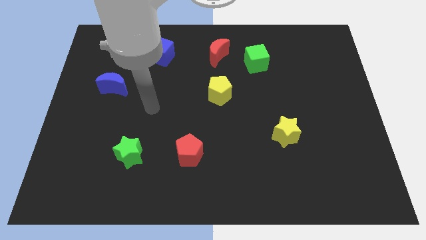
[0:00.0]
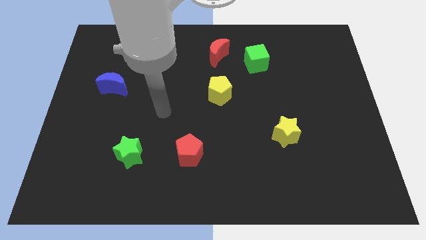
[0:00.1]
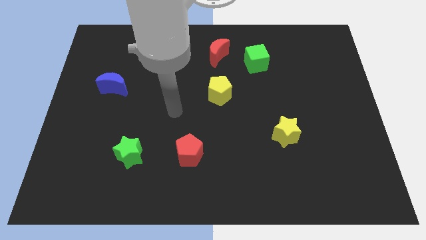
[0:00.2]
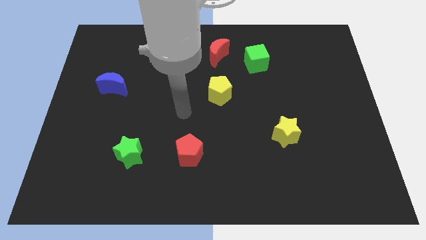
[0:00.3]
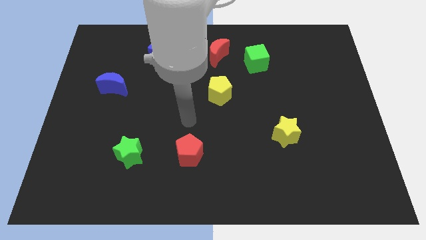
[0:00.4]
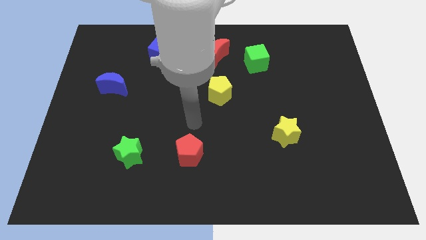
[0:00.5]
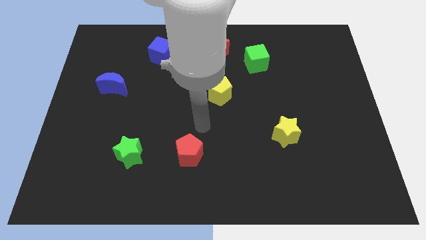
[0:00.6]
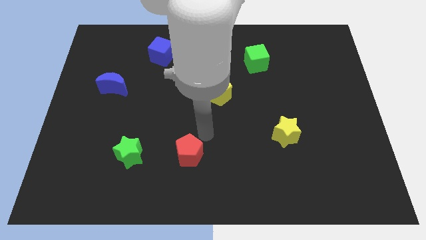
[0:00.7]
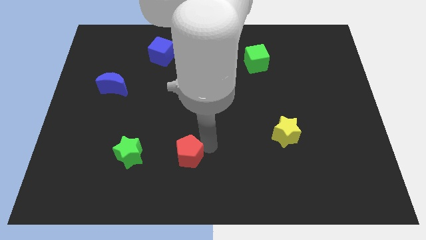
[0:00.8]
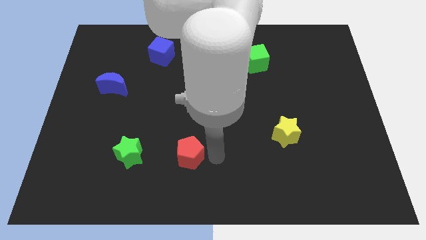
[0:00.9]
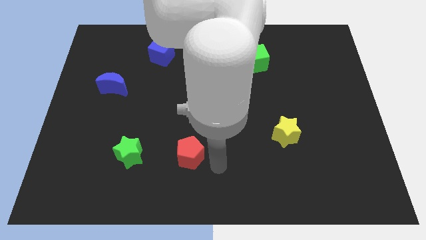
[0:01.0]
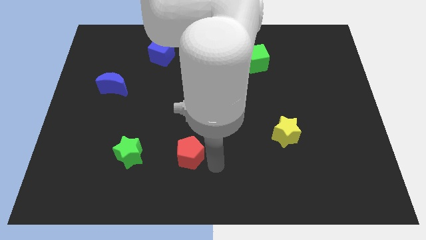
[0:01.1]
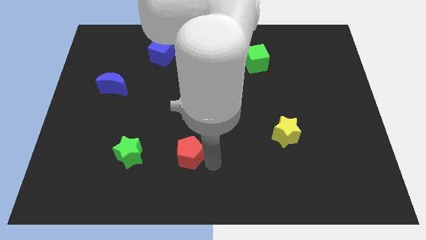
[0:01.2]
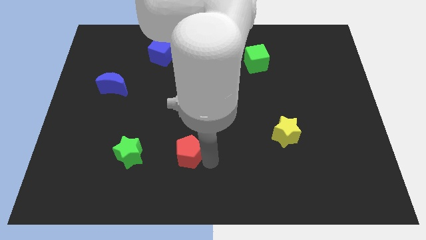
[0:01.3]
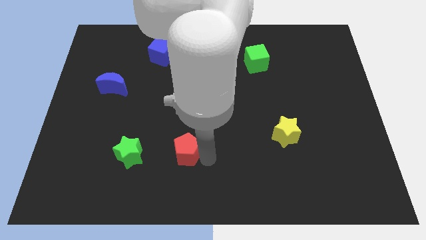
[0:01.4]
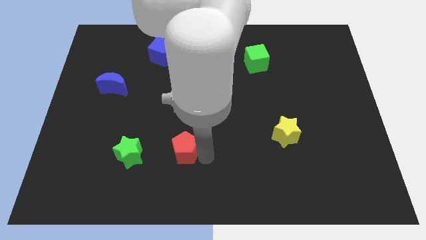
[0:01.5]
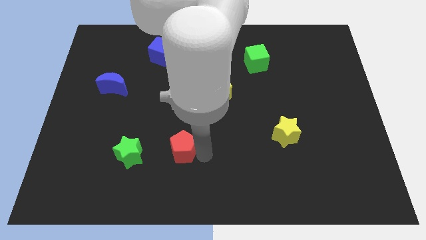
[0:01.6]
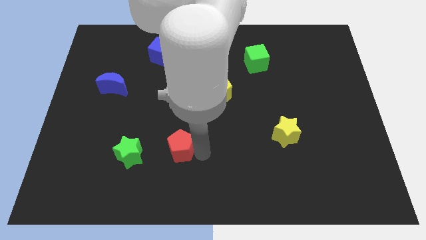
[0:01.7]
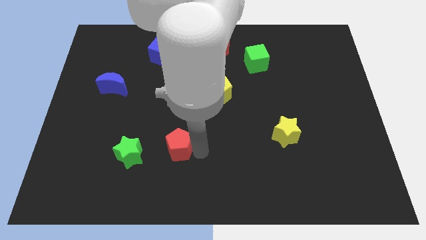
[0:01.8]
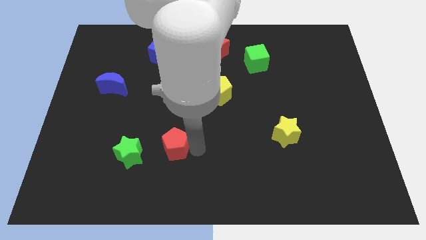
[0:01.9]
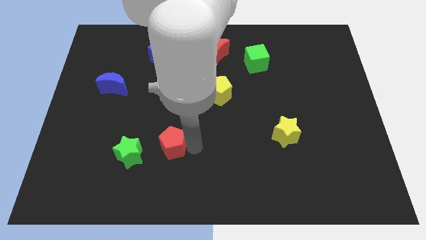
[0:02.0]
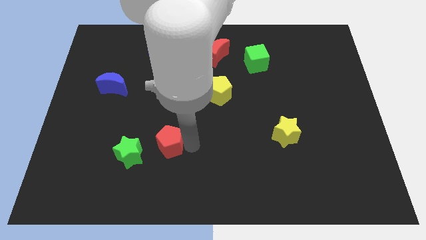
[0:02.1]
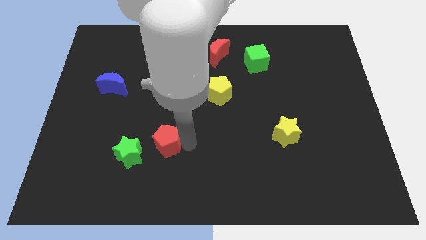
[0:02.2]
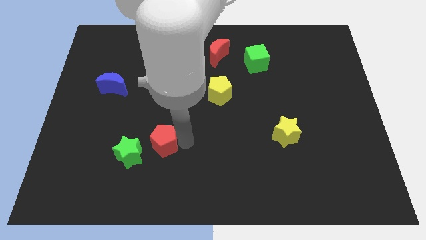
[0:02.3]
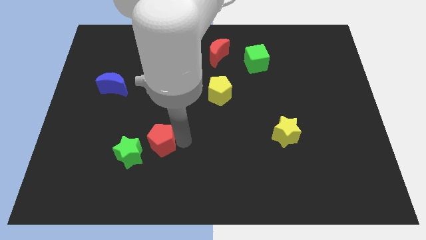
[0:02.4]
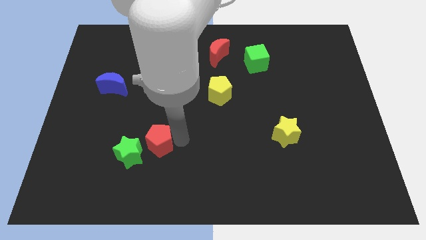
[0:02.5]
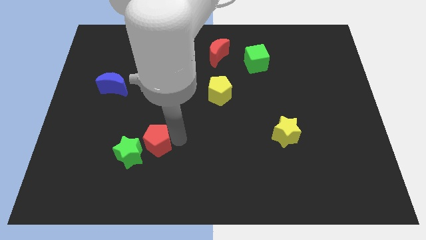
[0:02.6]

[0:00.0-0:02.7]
slightly slide the red pentagon left

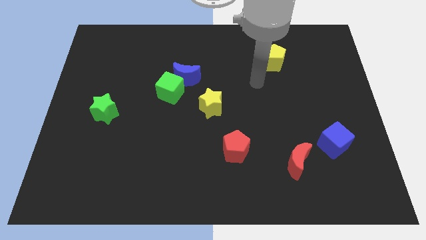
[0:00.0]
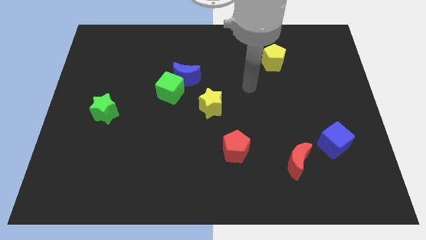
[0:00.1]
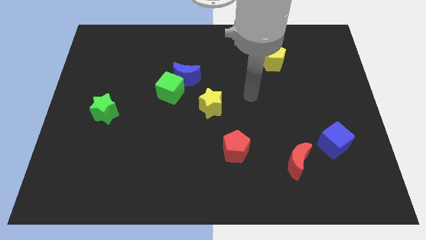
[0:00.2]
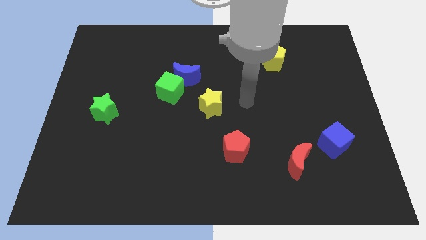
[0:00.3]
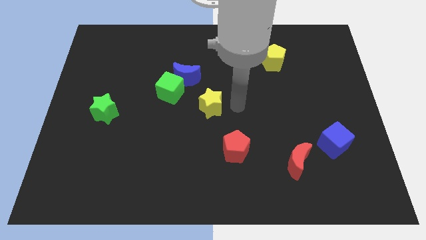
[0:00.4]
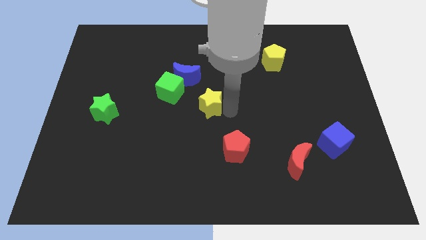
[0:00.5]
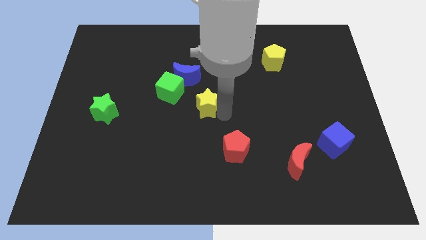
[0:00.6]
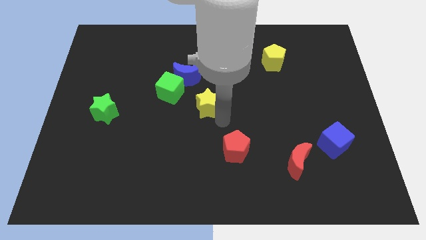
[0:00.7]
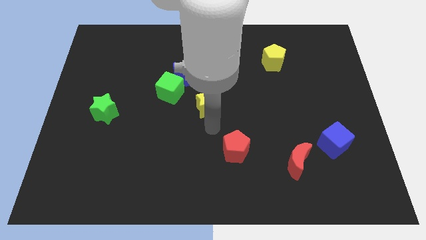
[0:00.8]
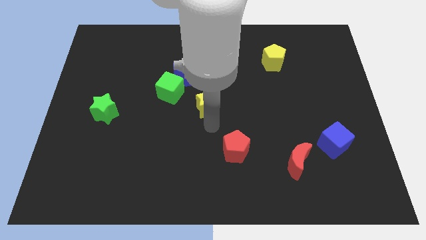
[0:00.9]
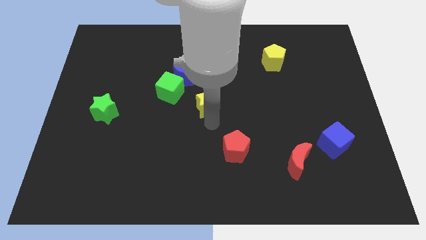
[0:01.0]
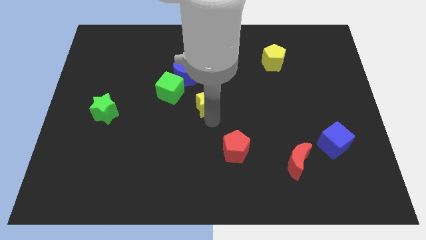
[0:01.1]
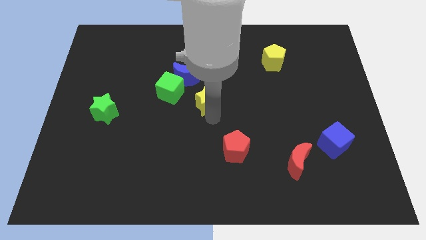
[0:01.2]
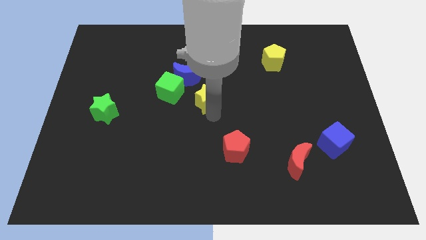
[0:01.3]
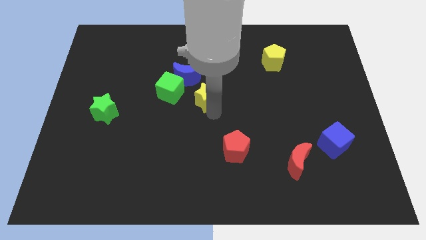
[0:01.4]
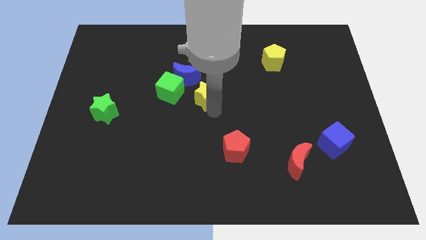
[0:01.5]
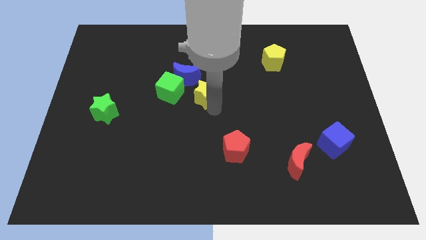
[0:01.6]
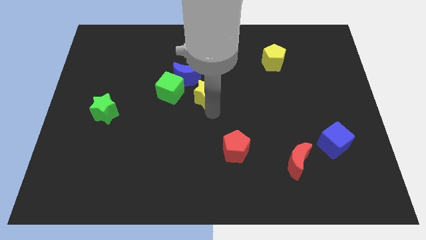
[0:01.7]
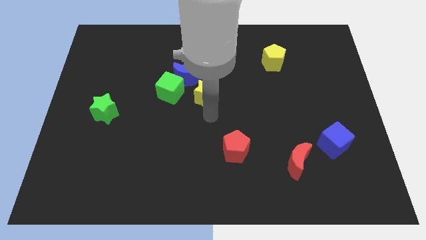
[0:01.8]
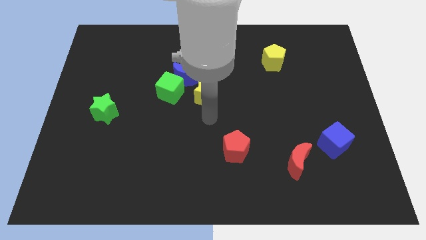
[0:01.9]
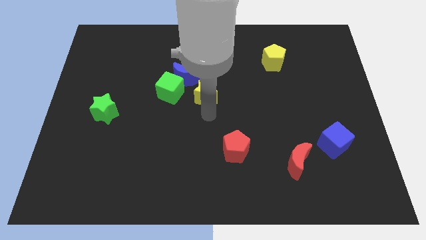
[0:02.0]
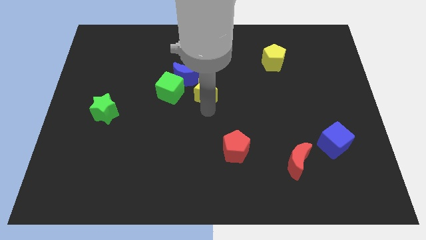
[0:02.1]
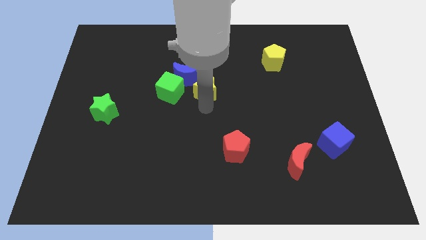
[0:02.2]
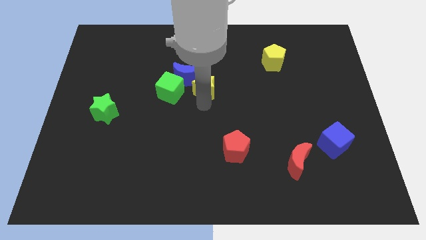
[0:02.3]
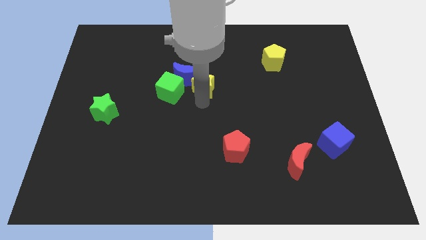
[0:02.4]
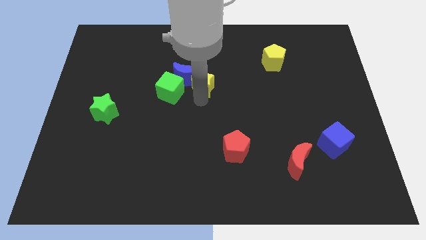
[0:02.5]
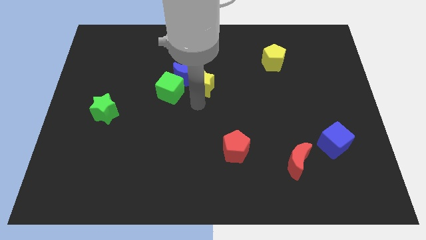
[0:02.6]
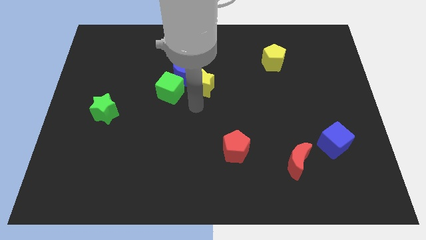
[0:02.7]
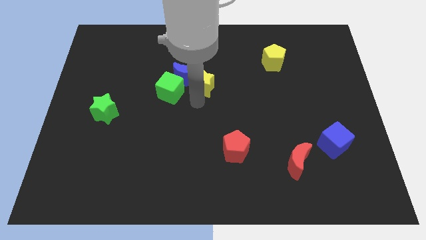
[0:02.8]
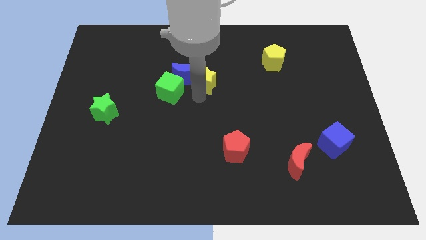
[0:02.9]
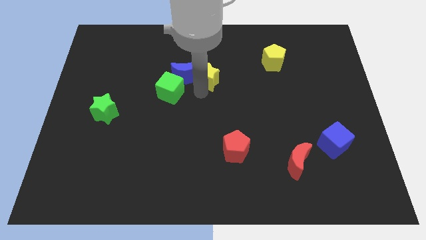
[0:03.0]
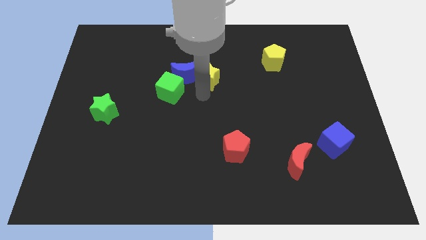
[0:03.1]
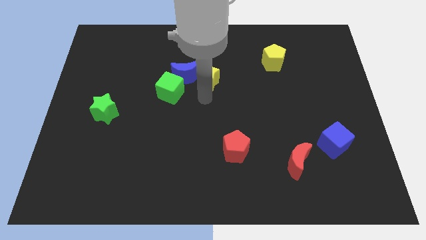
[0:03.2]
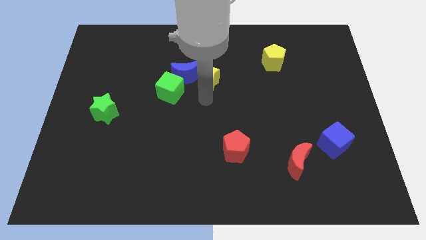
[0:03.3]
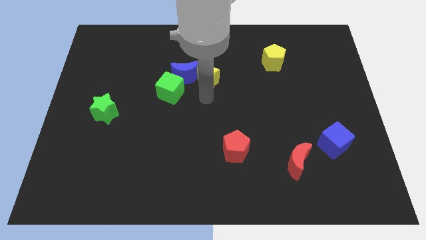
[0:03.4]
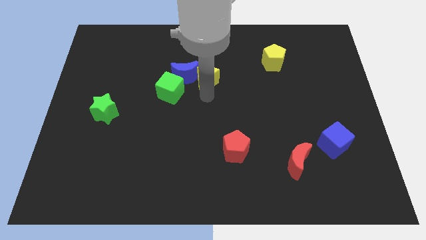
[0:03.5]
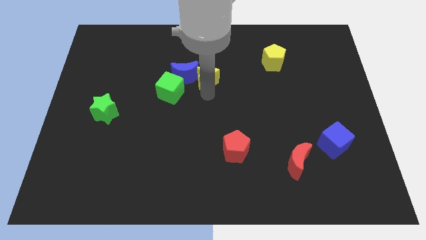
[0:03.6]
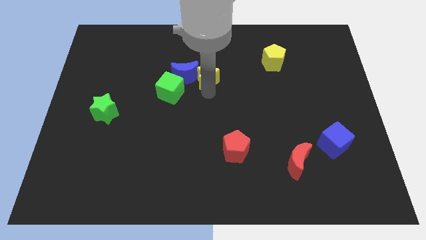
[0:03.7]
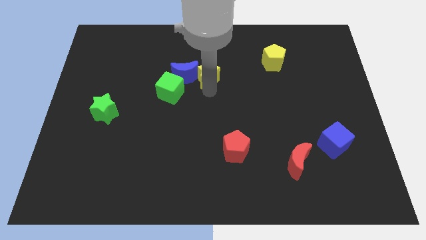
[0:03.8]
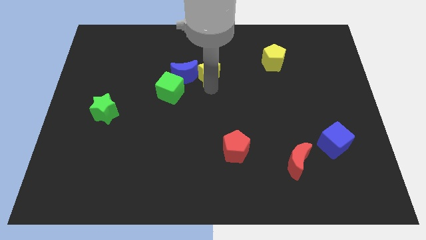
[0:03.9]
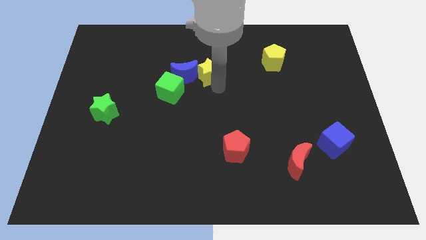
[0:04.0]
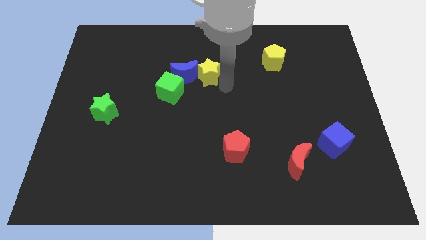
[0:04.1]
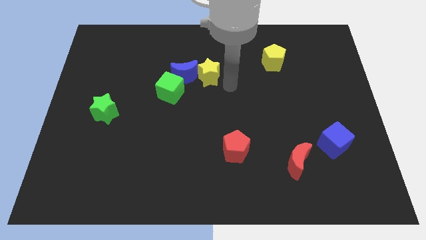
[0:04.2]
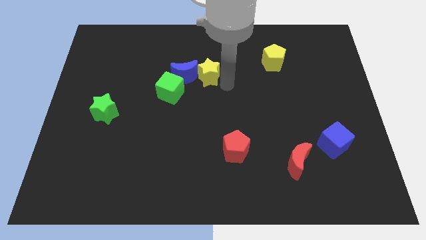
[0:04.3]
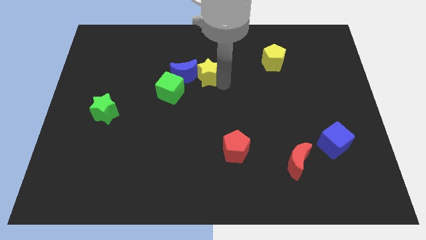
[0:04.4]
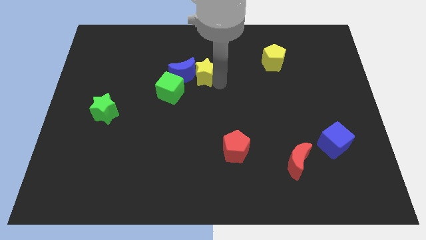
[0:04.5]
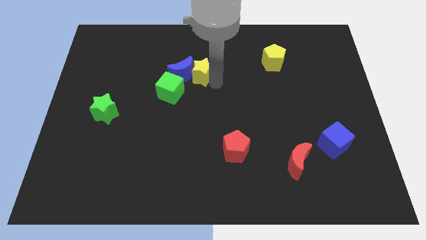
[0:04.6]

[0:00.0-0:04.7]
slightly slide the yellow star up and to the left

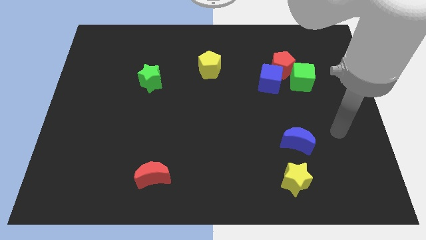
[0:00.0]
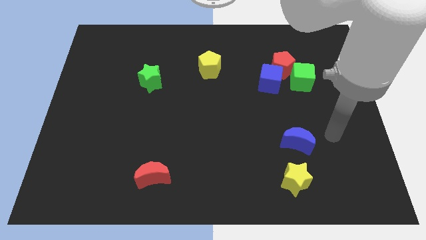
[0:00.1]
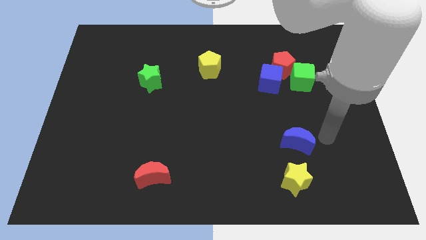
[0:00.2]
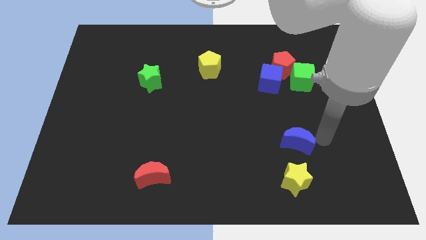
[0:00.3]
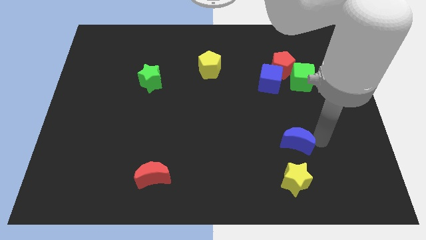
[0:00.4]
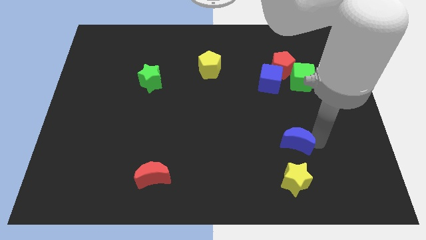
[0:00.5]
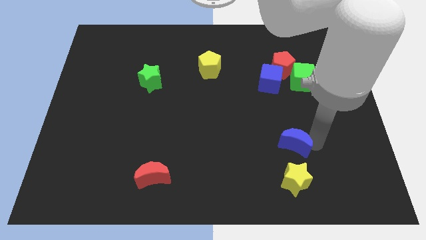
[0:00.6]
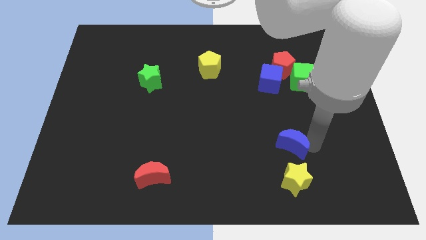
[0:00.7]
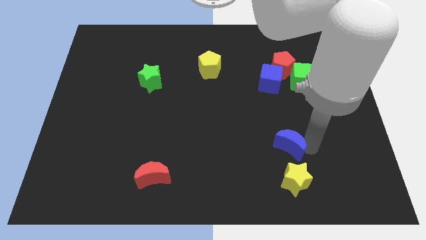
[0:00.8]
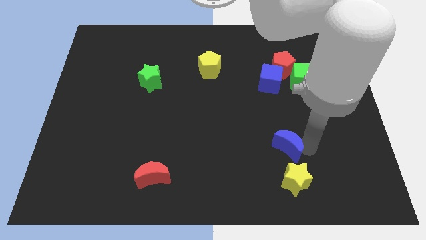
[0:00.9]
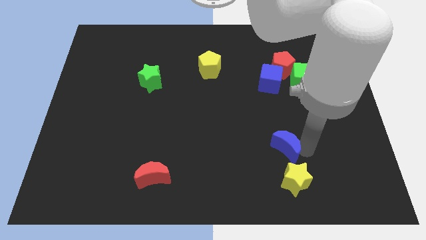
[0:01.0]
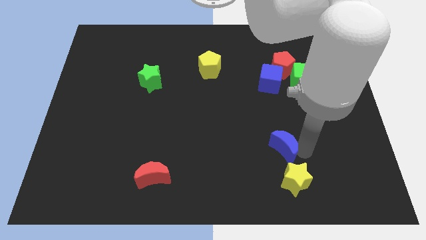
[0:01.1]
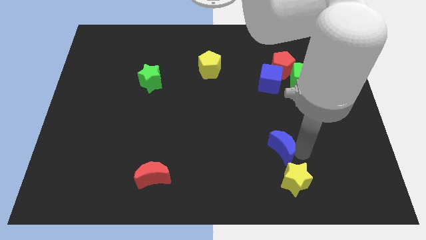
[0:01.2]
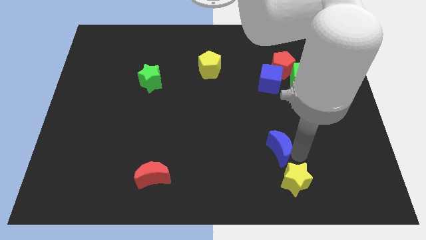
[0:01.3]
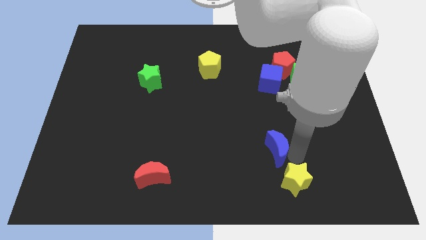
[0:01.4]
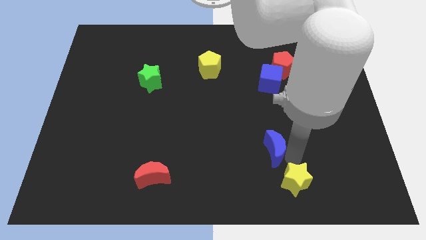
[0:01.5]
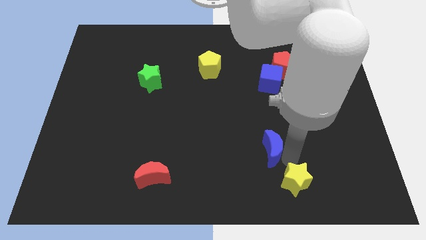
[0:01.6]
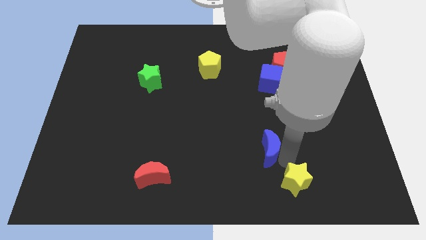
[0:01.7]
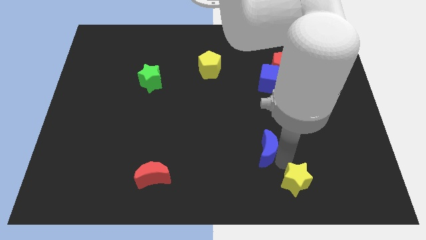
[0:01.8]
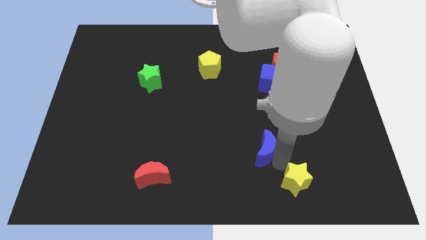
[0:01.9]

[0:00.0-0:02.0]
slightly move the blue moon to the left
